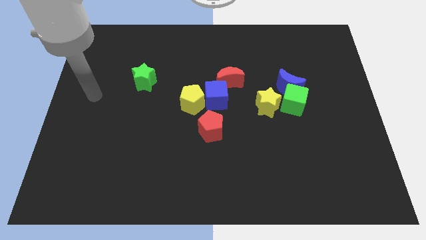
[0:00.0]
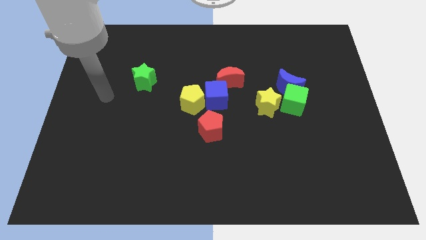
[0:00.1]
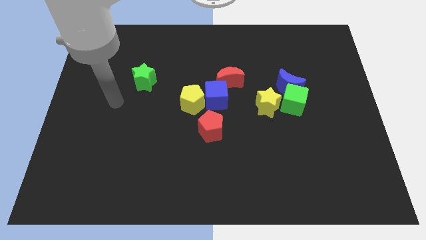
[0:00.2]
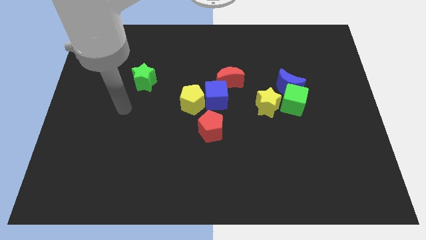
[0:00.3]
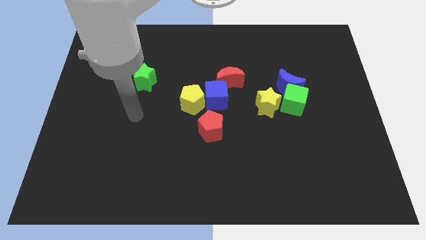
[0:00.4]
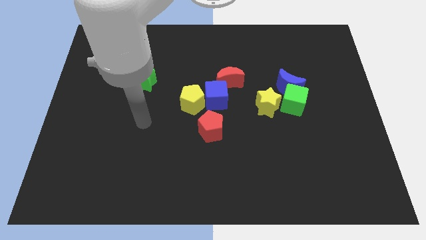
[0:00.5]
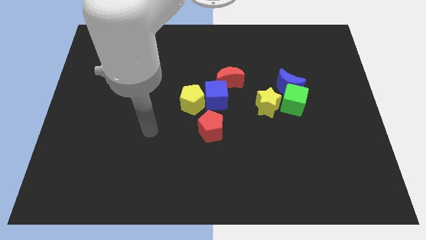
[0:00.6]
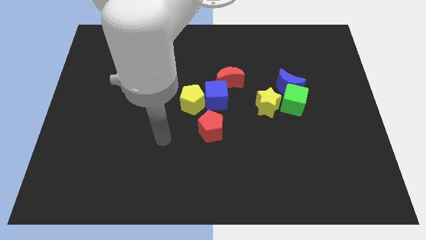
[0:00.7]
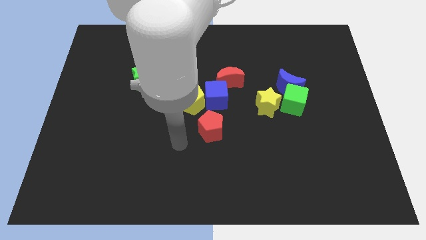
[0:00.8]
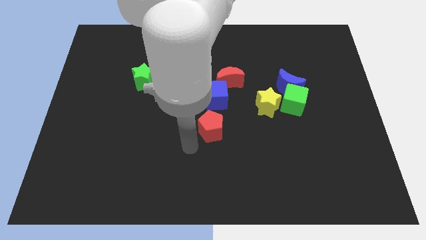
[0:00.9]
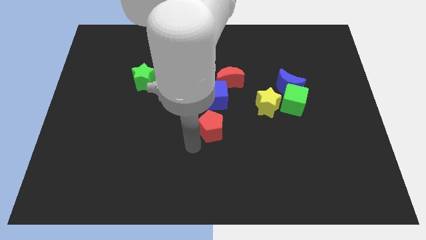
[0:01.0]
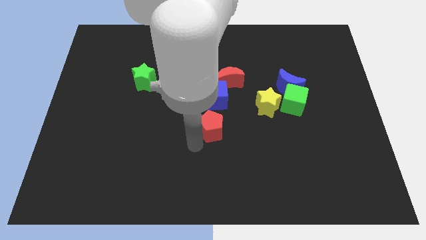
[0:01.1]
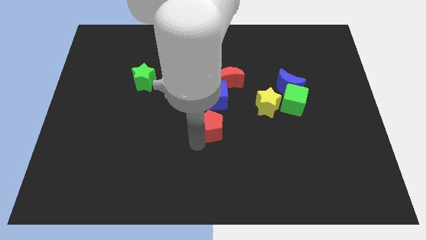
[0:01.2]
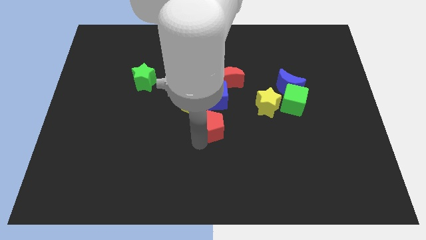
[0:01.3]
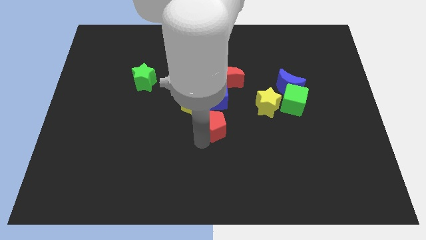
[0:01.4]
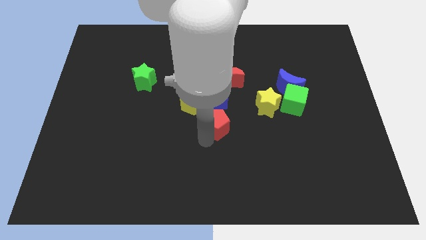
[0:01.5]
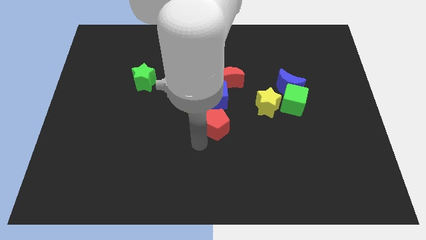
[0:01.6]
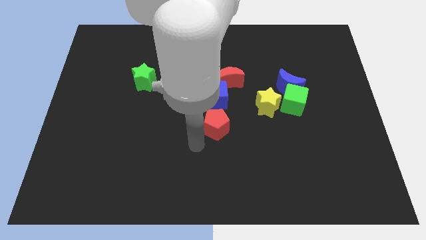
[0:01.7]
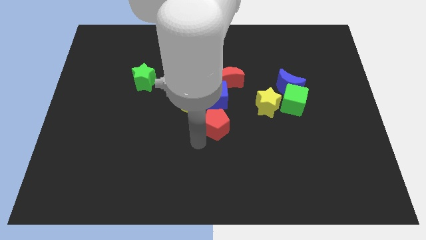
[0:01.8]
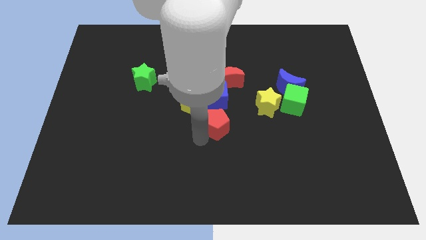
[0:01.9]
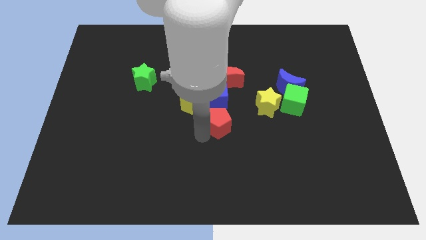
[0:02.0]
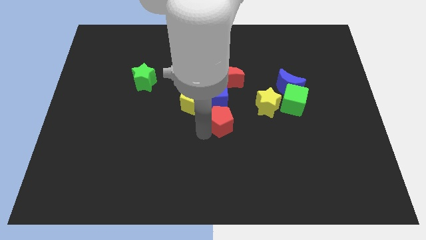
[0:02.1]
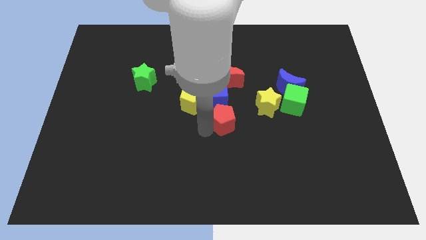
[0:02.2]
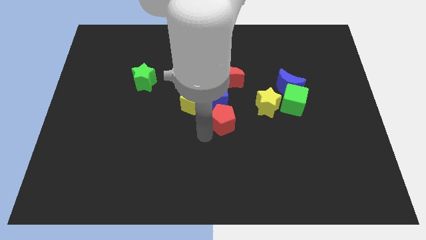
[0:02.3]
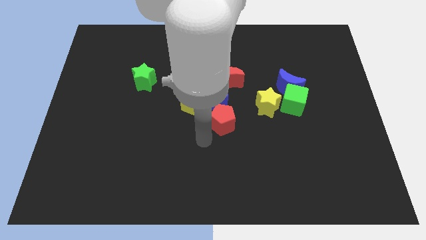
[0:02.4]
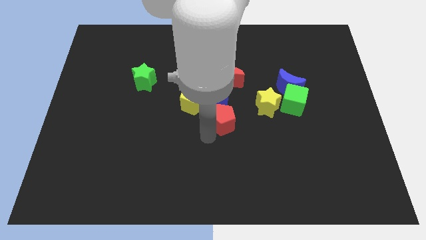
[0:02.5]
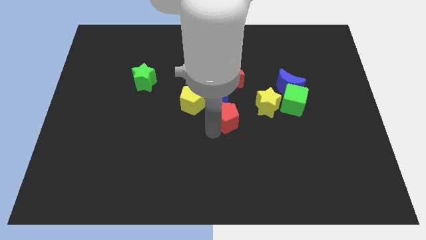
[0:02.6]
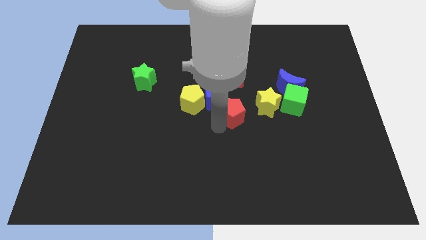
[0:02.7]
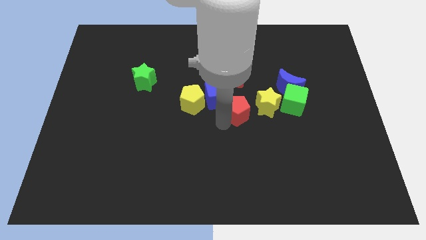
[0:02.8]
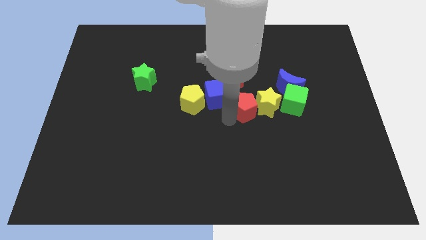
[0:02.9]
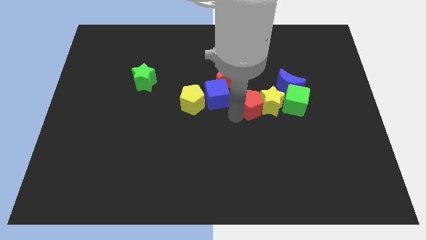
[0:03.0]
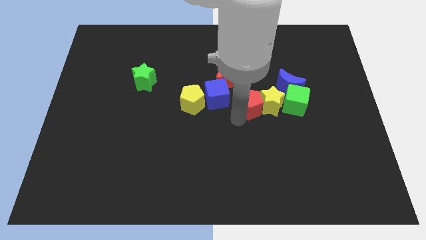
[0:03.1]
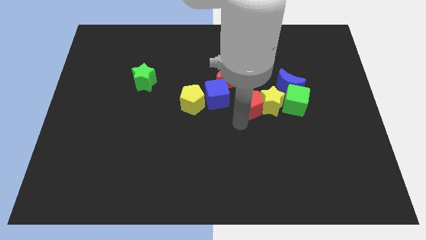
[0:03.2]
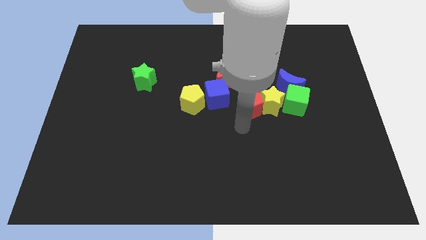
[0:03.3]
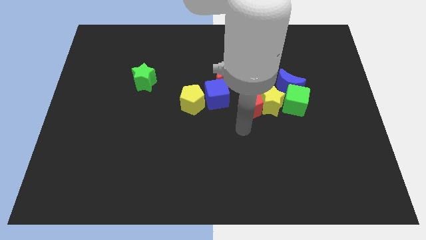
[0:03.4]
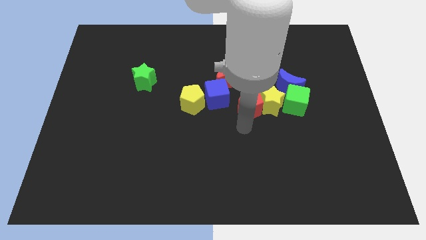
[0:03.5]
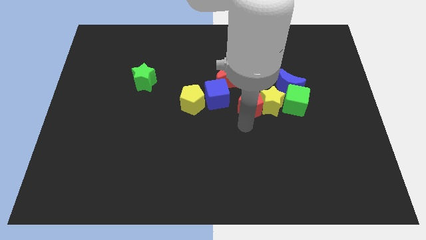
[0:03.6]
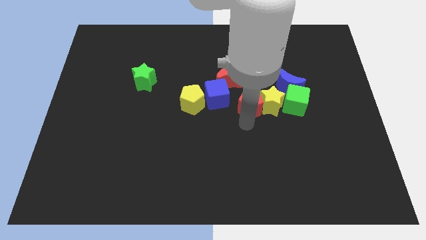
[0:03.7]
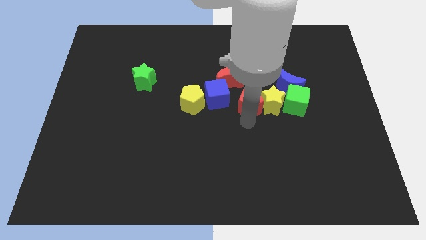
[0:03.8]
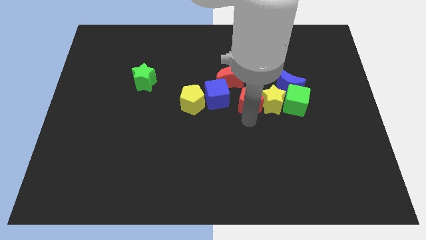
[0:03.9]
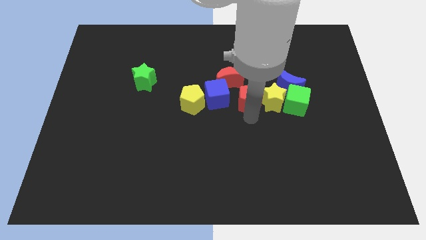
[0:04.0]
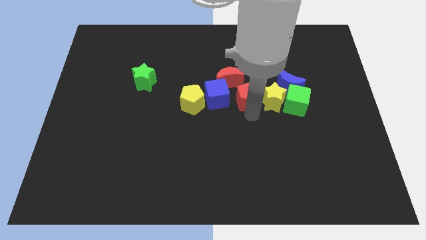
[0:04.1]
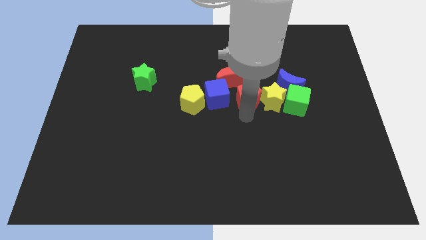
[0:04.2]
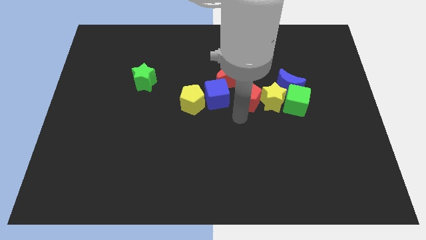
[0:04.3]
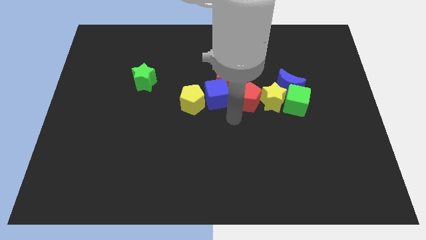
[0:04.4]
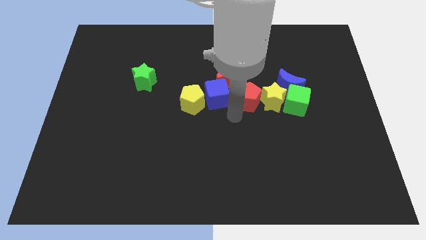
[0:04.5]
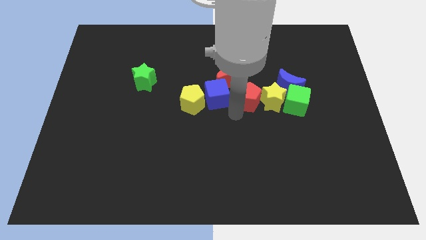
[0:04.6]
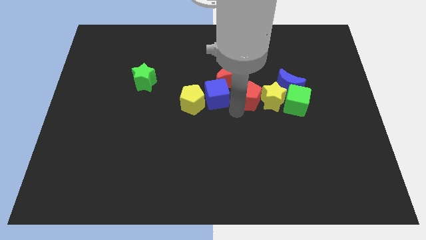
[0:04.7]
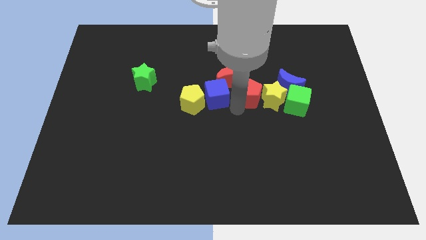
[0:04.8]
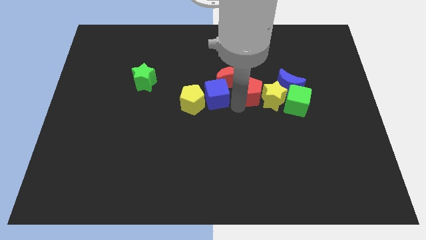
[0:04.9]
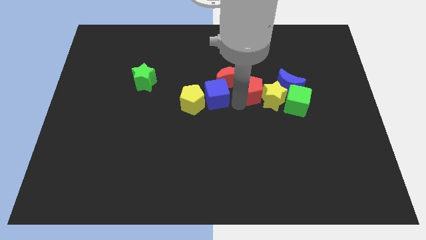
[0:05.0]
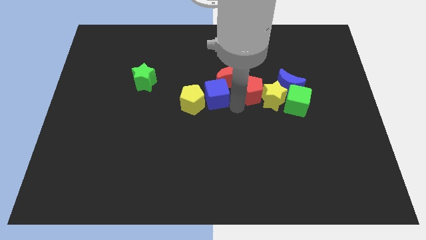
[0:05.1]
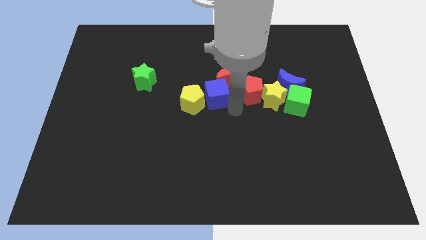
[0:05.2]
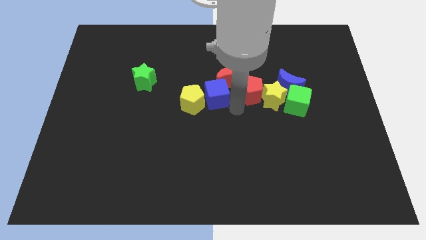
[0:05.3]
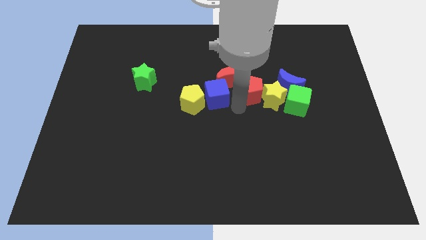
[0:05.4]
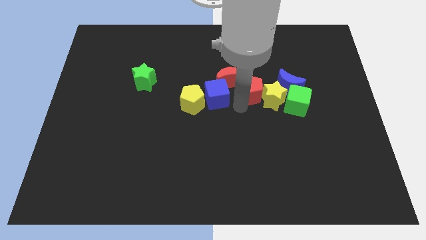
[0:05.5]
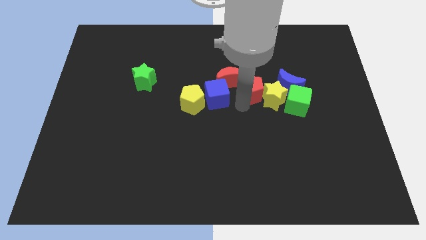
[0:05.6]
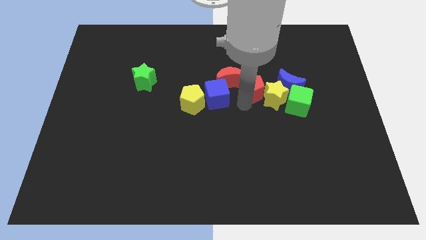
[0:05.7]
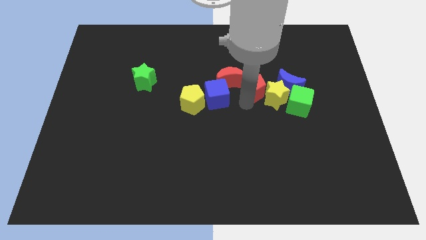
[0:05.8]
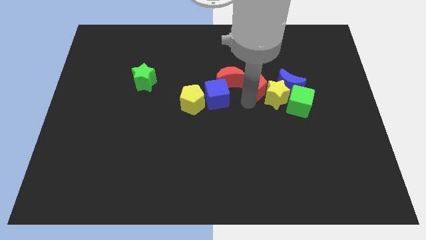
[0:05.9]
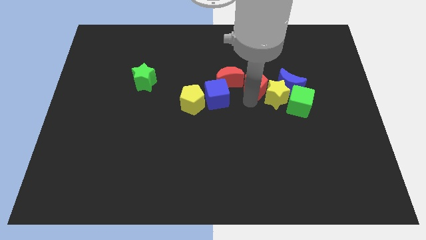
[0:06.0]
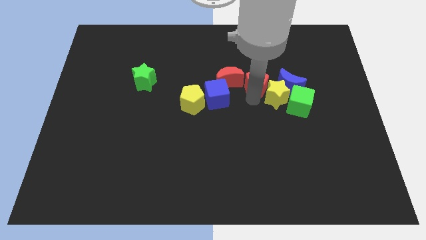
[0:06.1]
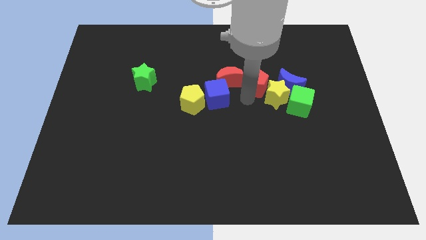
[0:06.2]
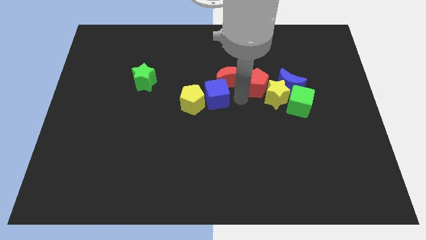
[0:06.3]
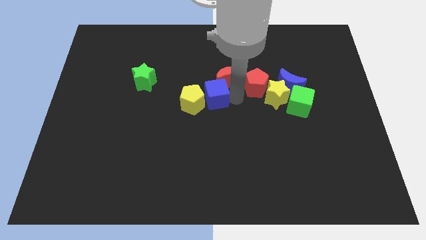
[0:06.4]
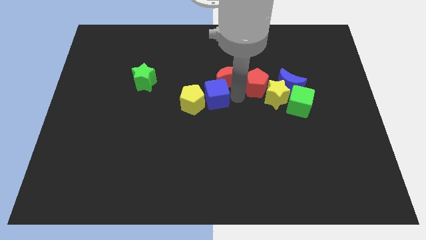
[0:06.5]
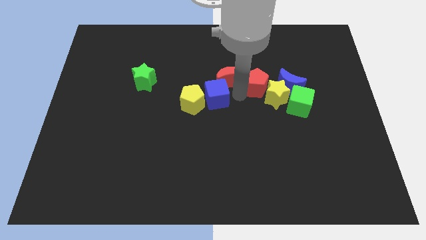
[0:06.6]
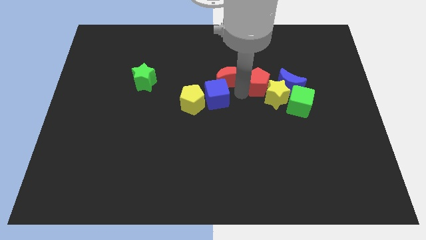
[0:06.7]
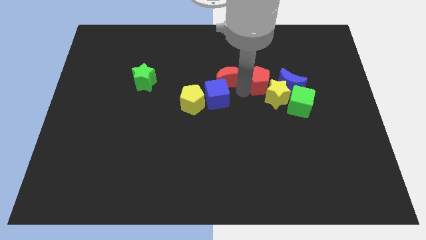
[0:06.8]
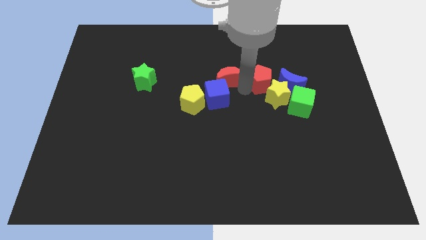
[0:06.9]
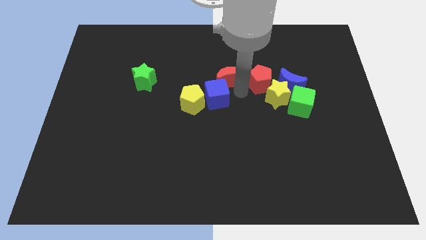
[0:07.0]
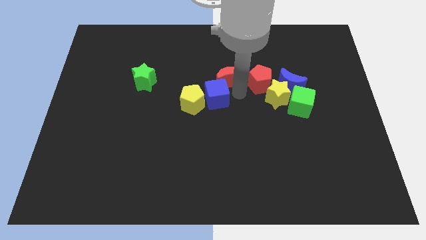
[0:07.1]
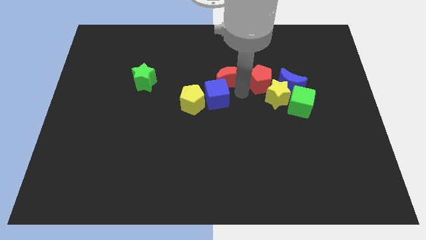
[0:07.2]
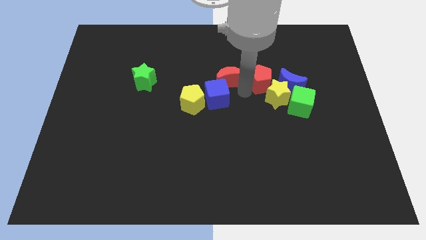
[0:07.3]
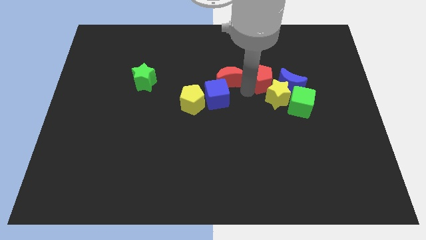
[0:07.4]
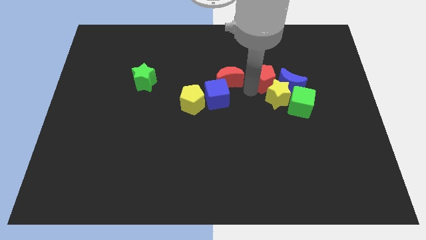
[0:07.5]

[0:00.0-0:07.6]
move the red pentagon up and then to the right

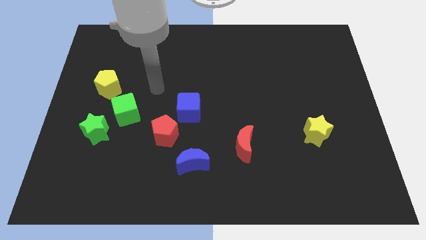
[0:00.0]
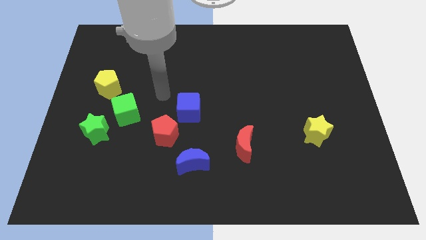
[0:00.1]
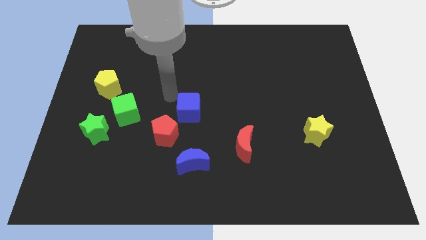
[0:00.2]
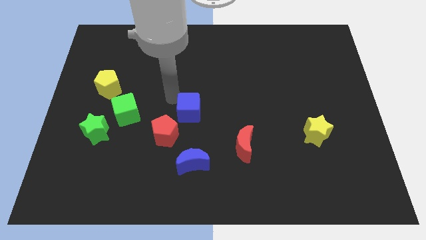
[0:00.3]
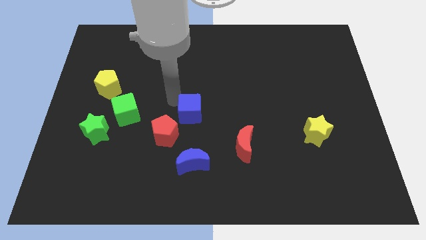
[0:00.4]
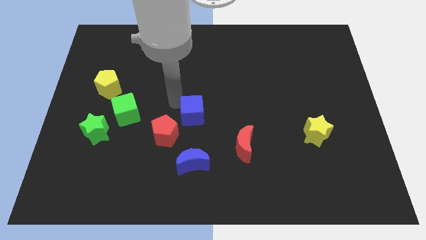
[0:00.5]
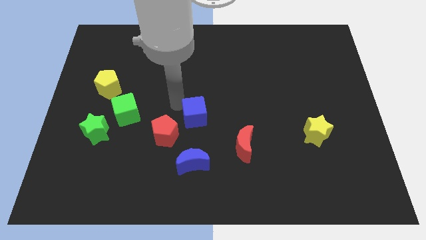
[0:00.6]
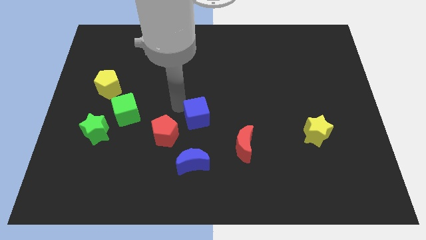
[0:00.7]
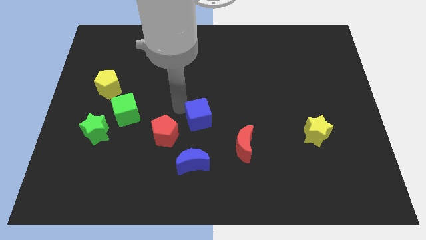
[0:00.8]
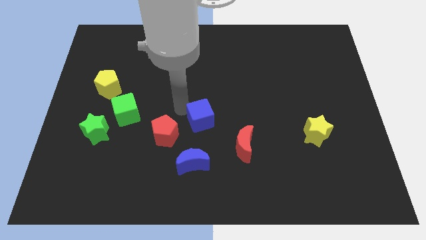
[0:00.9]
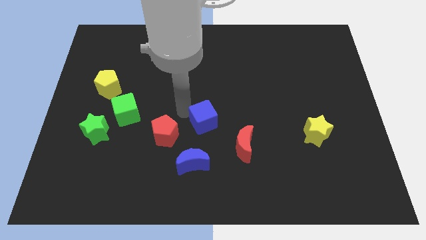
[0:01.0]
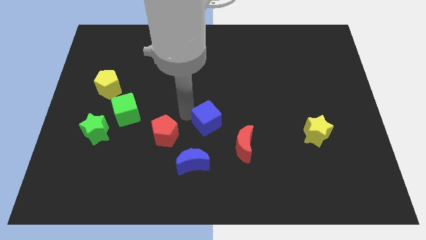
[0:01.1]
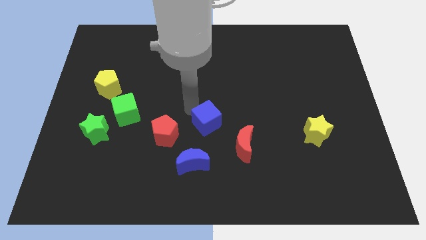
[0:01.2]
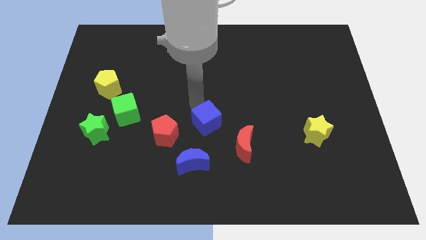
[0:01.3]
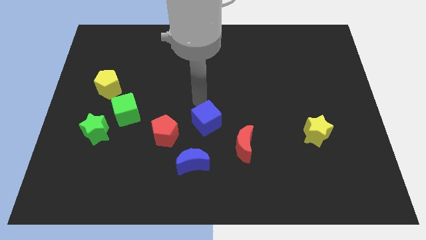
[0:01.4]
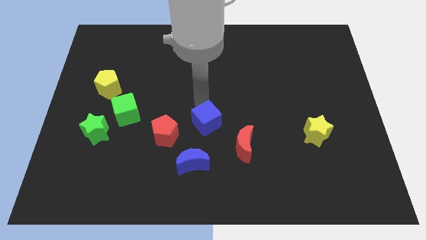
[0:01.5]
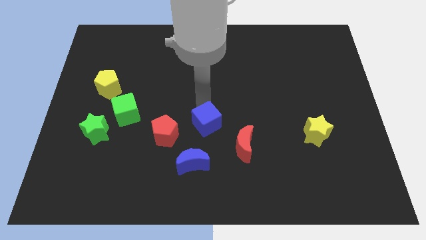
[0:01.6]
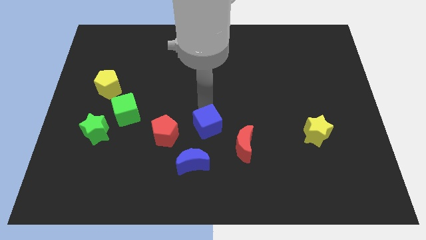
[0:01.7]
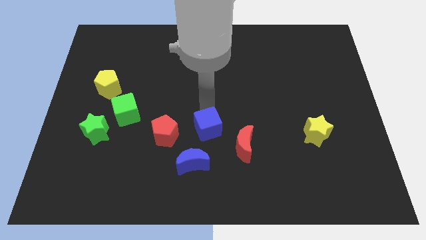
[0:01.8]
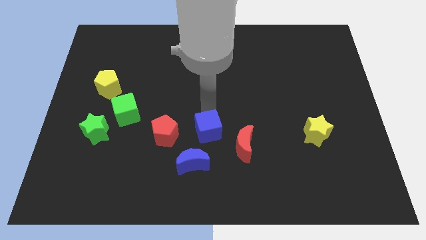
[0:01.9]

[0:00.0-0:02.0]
slightly slide the blue cube down and then to the right
